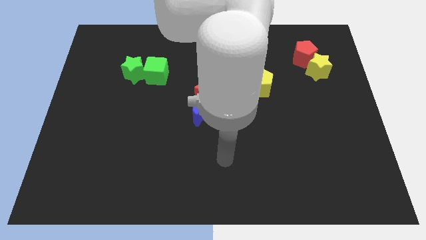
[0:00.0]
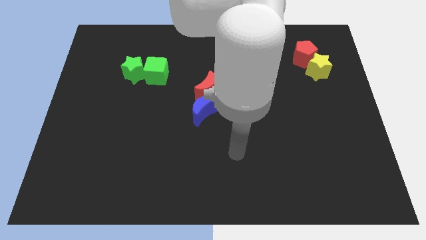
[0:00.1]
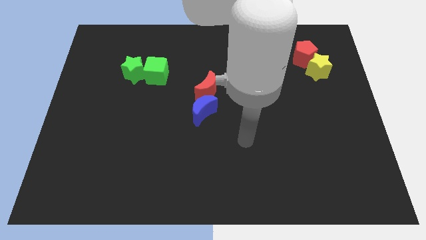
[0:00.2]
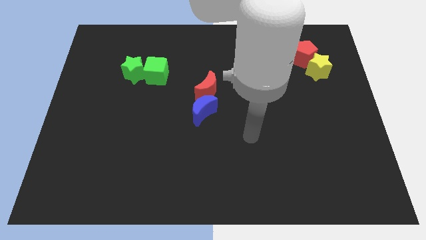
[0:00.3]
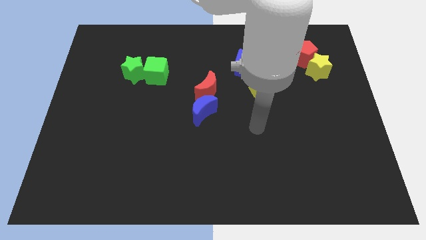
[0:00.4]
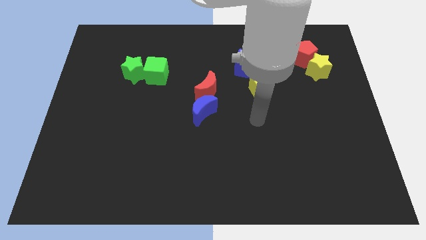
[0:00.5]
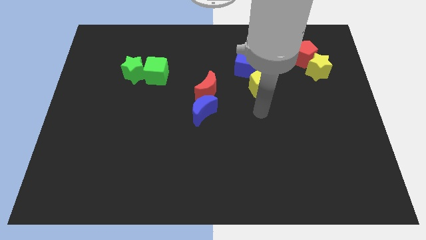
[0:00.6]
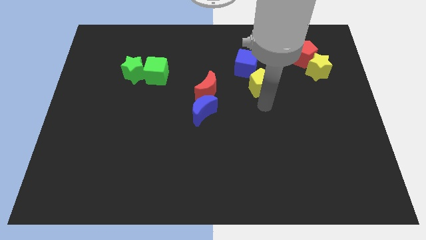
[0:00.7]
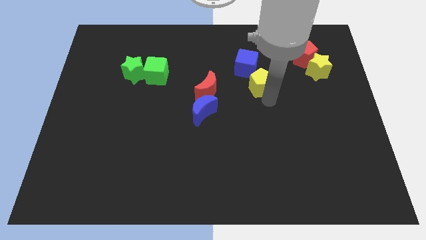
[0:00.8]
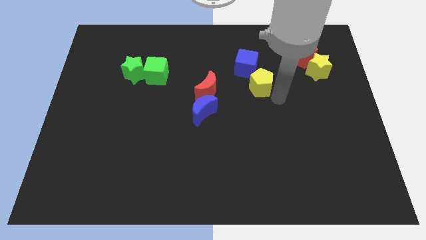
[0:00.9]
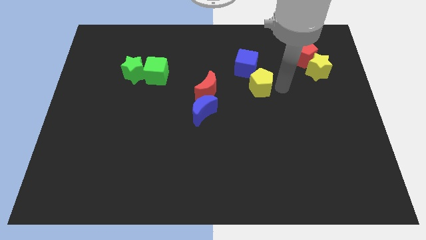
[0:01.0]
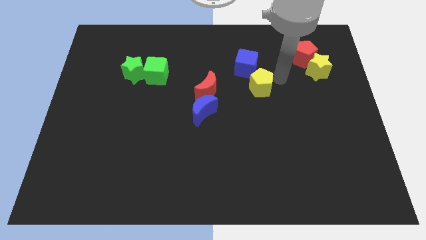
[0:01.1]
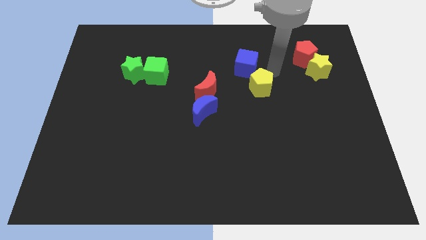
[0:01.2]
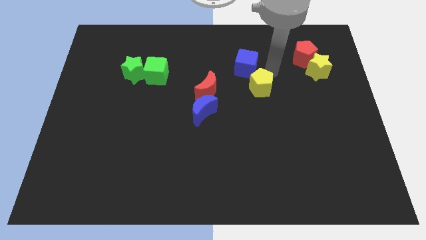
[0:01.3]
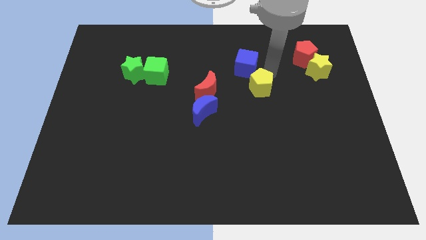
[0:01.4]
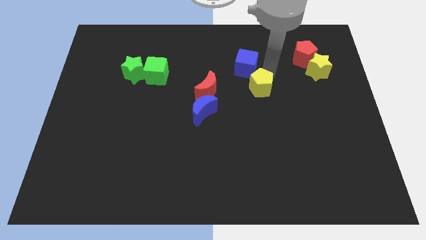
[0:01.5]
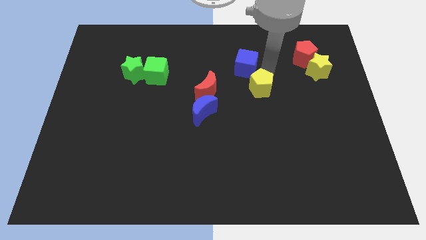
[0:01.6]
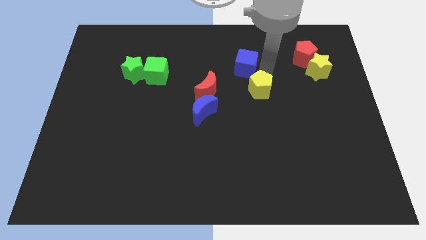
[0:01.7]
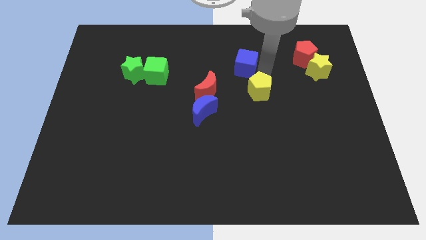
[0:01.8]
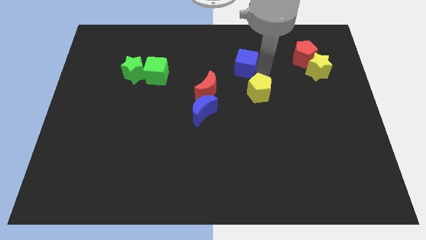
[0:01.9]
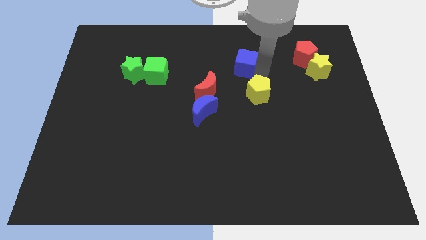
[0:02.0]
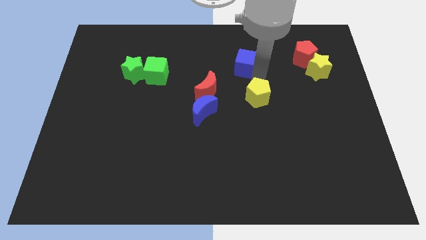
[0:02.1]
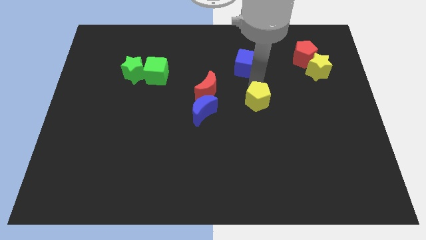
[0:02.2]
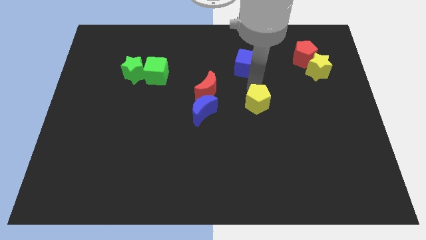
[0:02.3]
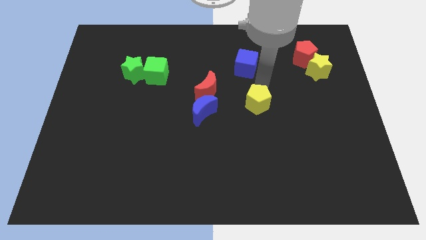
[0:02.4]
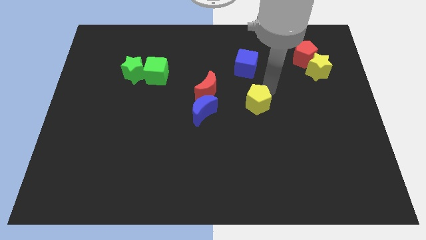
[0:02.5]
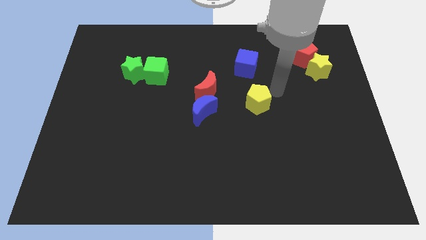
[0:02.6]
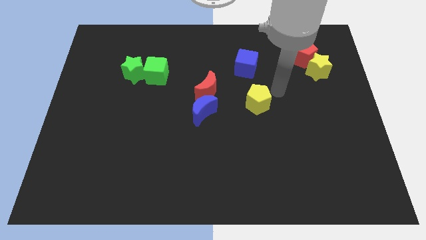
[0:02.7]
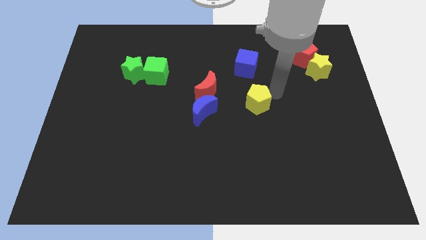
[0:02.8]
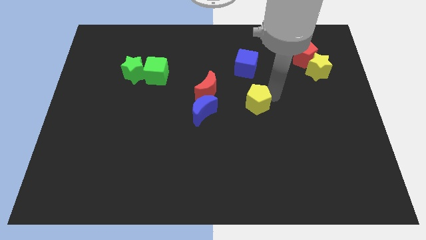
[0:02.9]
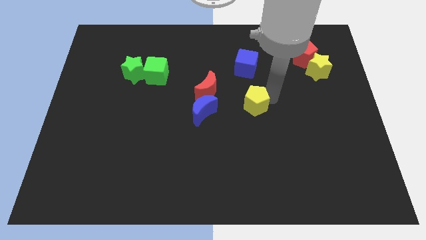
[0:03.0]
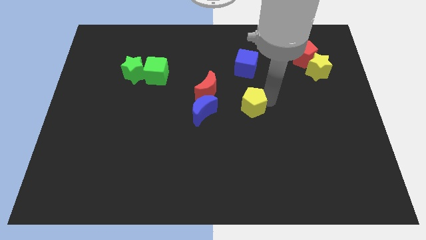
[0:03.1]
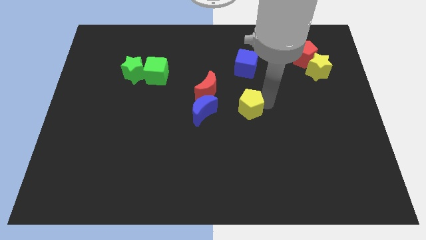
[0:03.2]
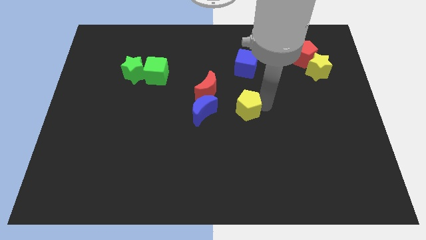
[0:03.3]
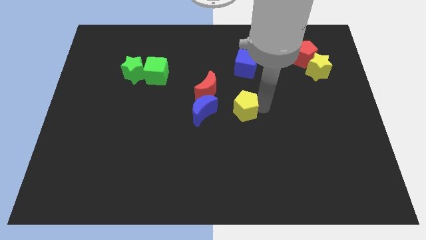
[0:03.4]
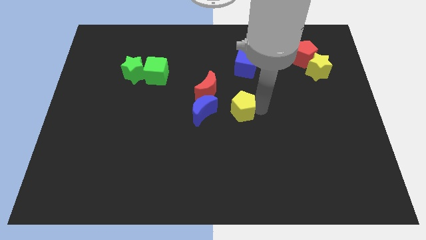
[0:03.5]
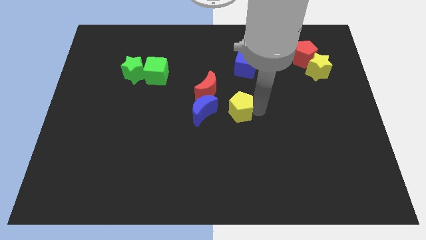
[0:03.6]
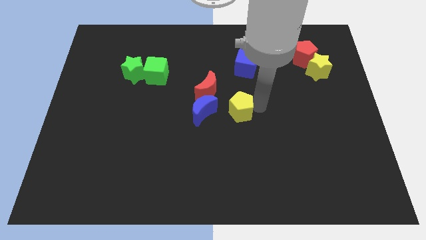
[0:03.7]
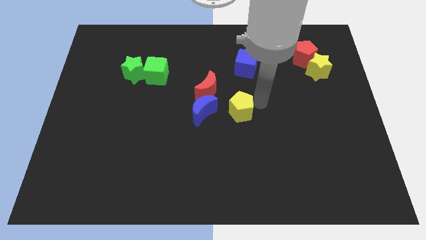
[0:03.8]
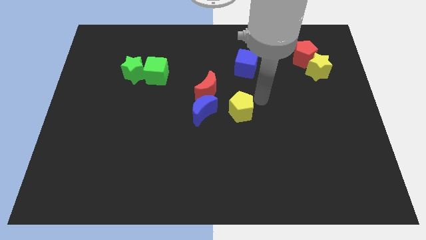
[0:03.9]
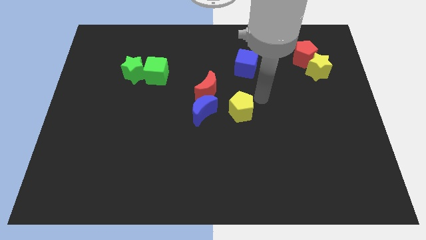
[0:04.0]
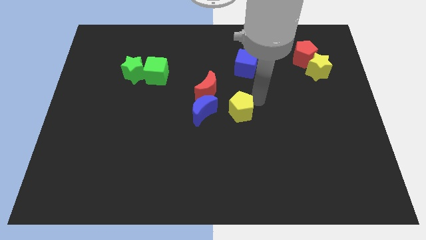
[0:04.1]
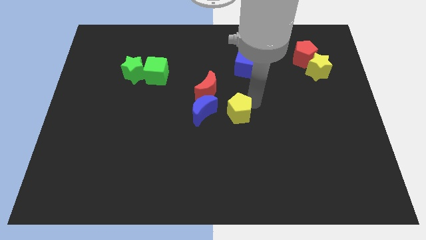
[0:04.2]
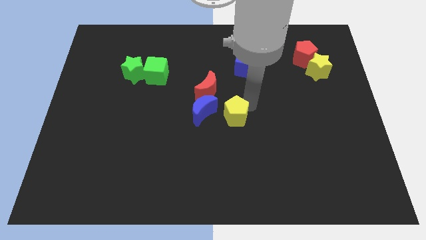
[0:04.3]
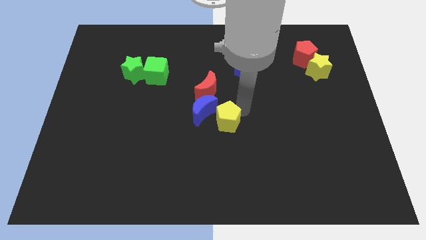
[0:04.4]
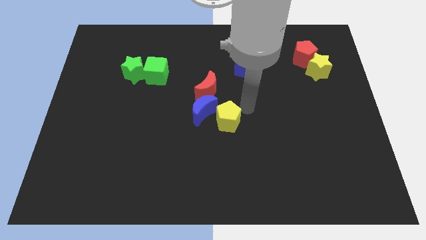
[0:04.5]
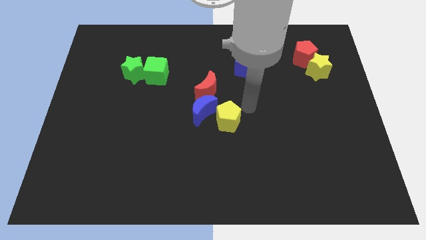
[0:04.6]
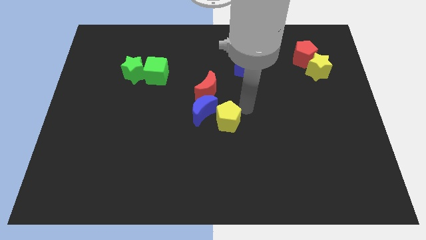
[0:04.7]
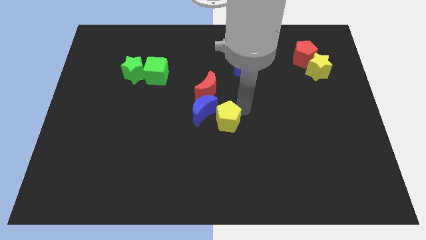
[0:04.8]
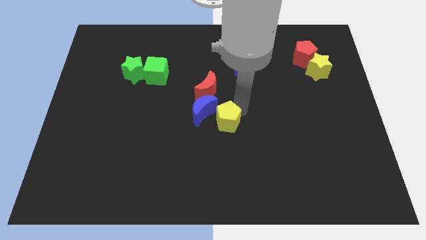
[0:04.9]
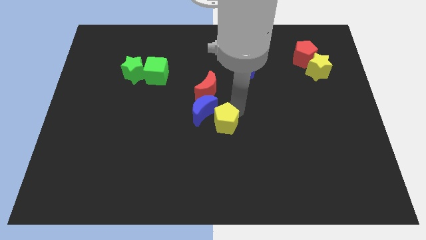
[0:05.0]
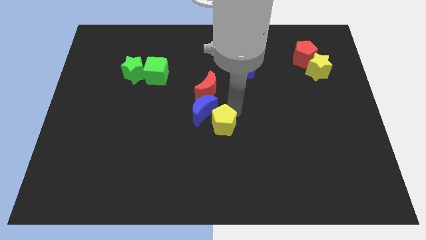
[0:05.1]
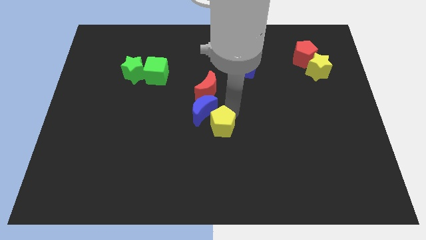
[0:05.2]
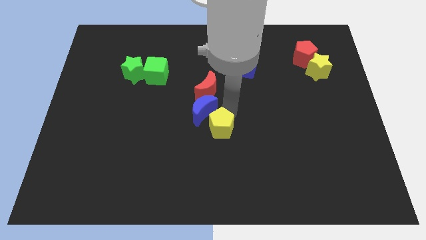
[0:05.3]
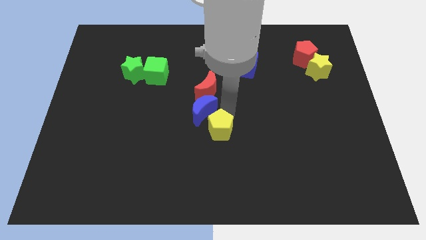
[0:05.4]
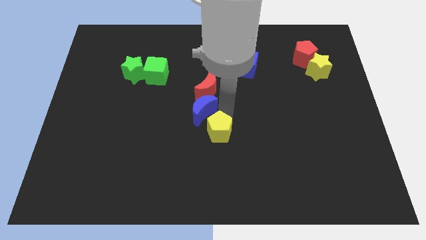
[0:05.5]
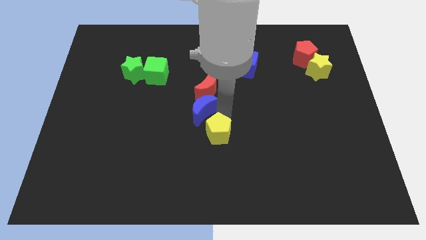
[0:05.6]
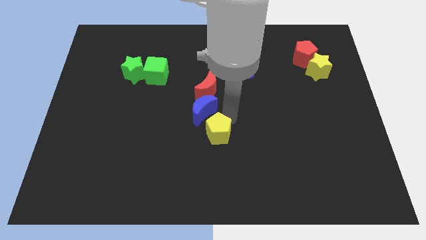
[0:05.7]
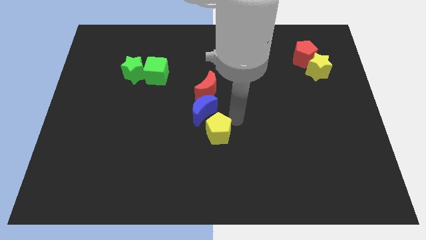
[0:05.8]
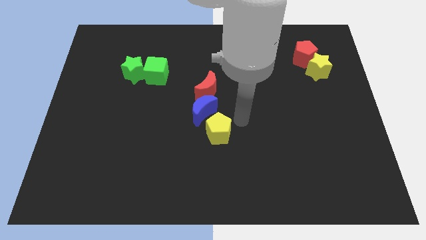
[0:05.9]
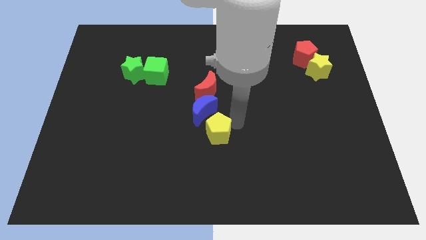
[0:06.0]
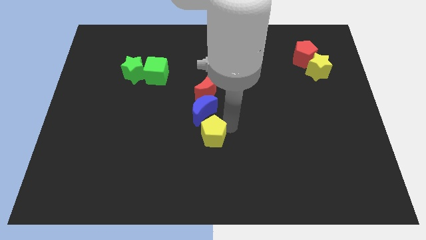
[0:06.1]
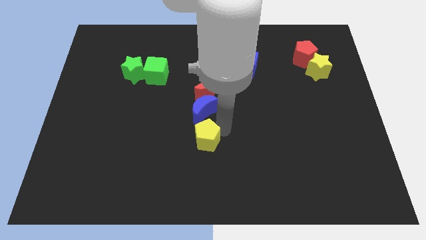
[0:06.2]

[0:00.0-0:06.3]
slide the yellow pentagon downwards and left diagonally

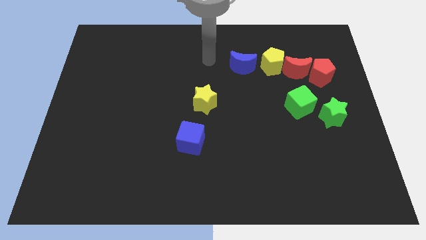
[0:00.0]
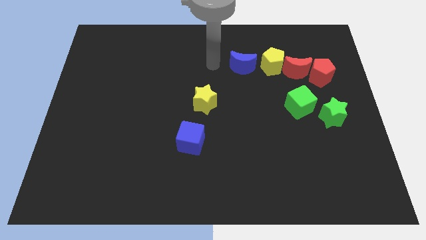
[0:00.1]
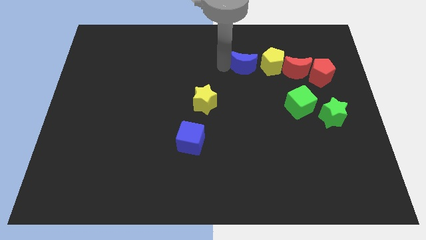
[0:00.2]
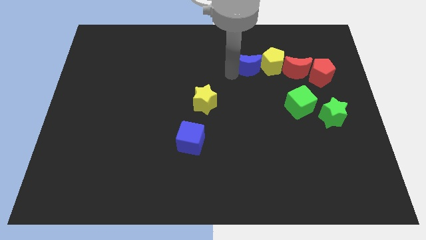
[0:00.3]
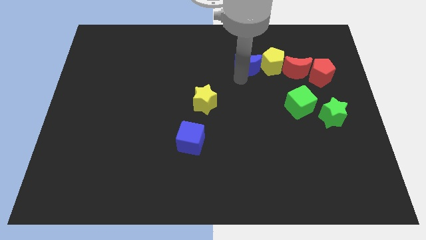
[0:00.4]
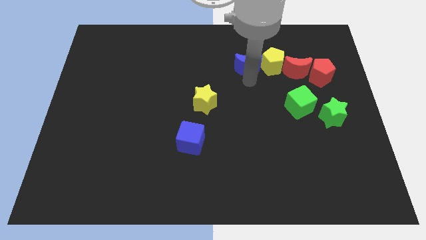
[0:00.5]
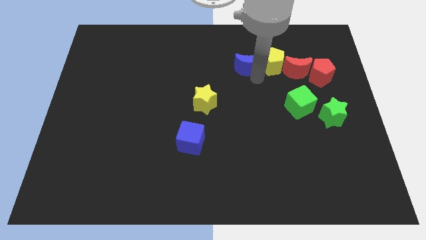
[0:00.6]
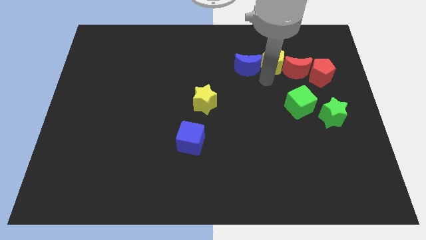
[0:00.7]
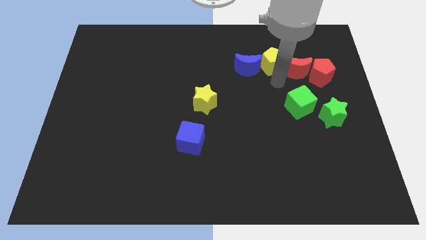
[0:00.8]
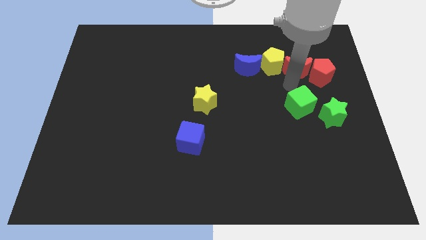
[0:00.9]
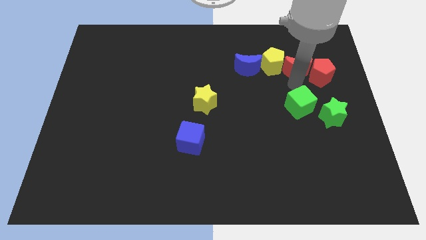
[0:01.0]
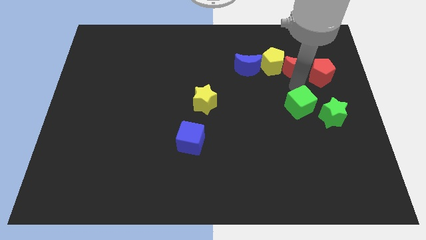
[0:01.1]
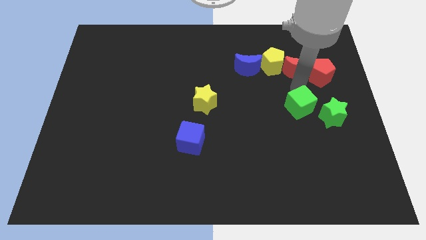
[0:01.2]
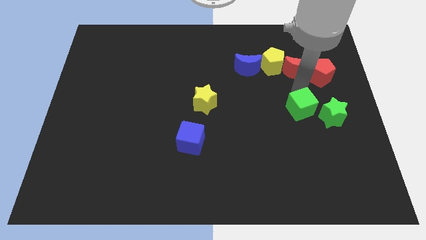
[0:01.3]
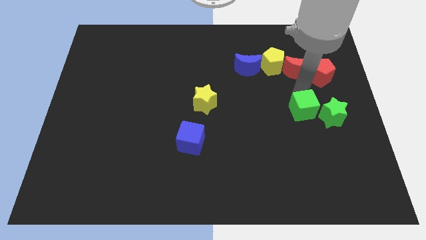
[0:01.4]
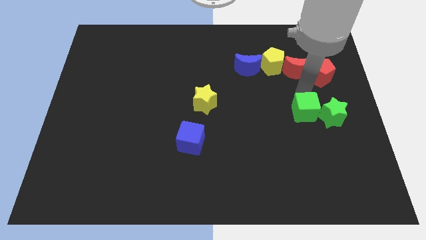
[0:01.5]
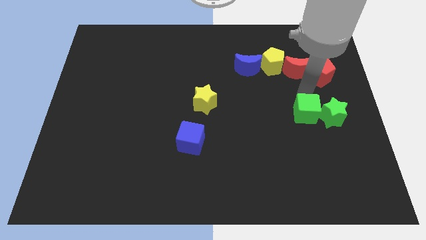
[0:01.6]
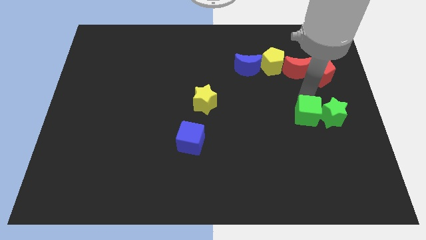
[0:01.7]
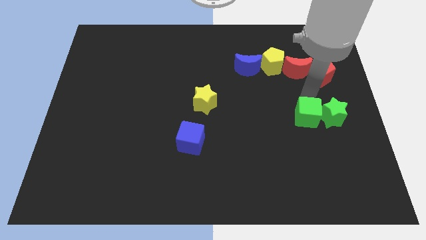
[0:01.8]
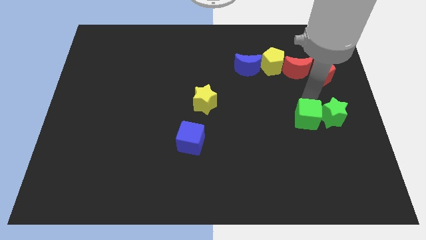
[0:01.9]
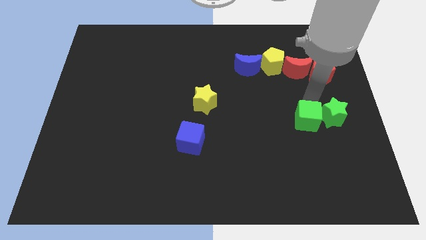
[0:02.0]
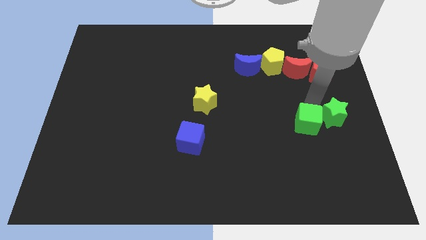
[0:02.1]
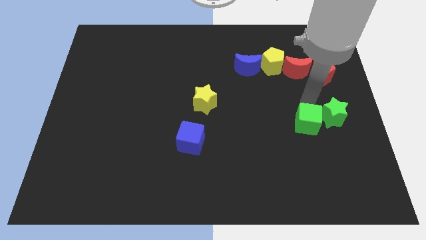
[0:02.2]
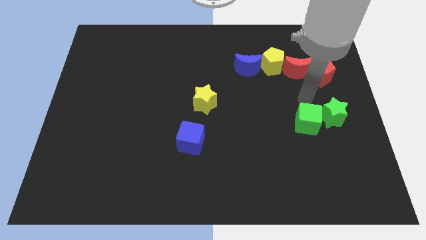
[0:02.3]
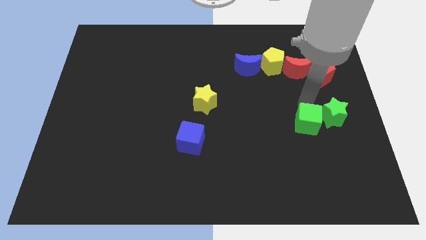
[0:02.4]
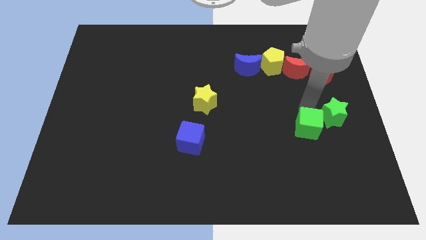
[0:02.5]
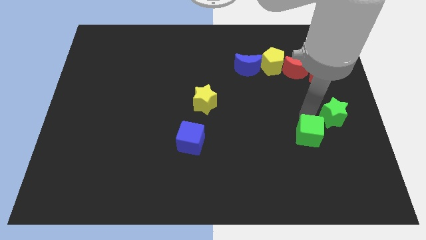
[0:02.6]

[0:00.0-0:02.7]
push the green cube downwards somewhat
